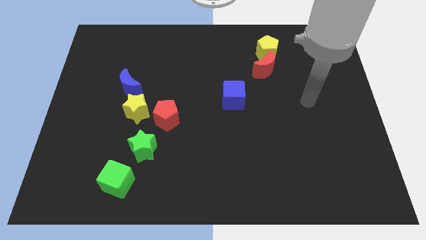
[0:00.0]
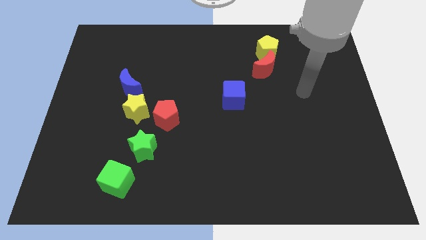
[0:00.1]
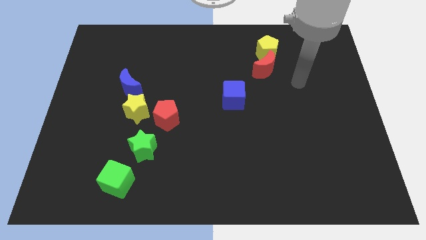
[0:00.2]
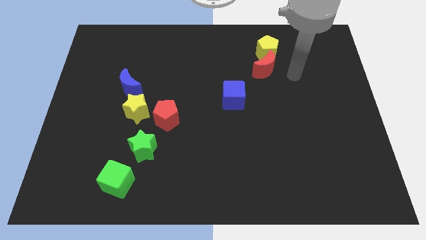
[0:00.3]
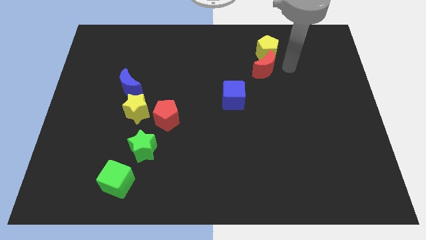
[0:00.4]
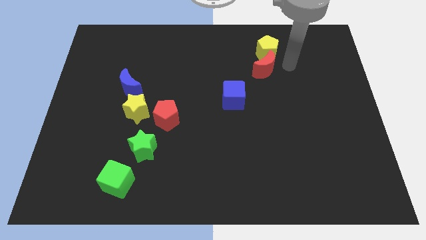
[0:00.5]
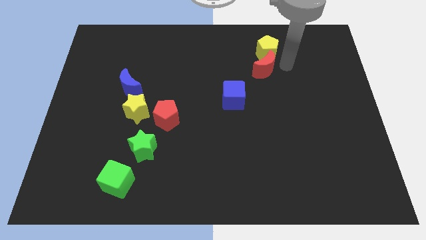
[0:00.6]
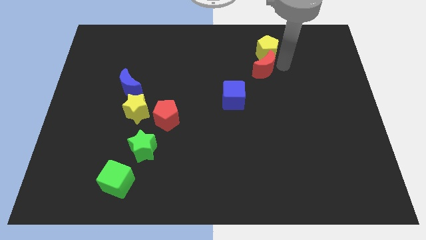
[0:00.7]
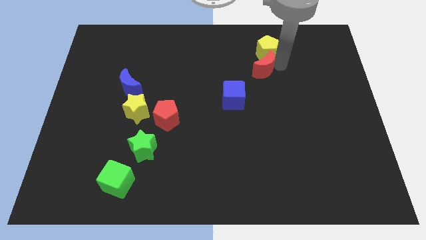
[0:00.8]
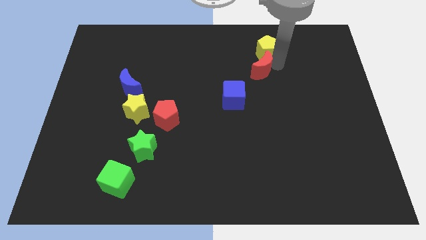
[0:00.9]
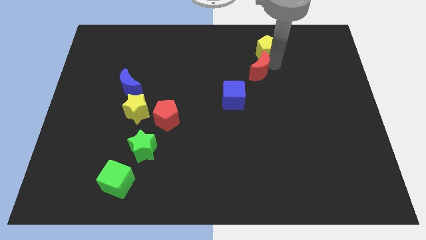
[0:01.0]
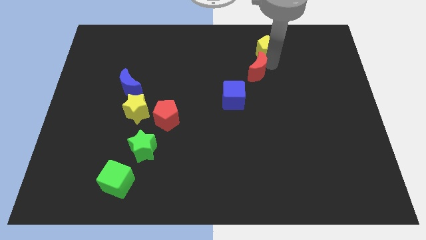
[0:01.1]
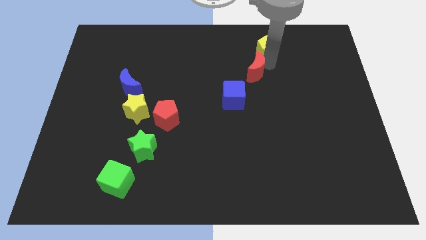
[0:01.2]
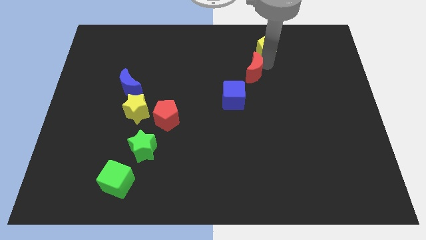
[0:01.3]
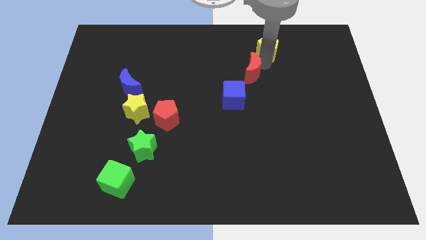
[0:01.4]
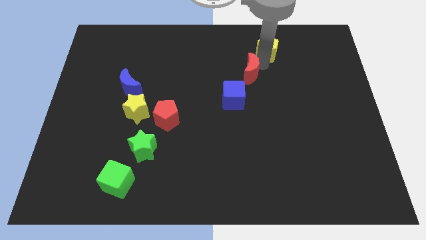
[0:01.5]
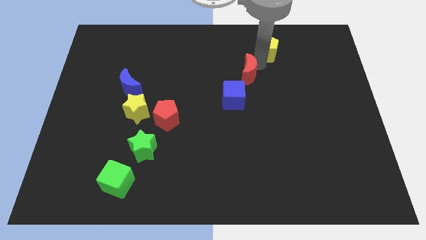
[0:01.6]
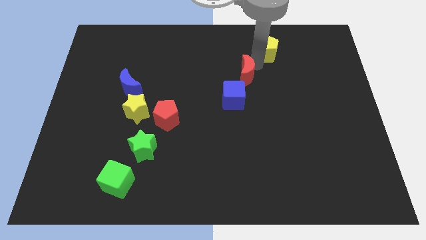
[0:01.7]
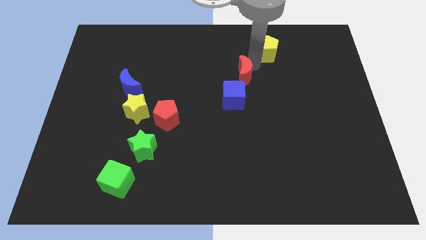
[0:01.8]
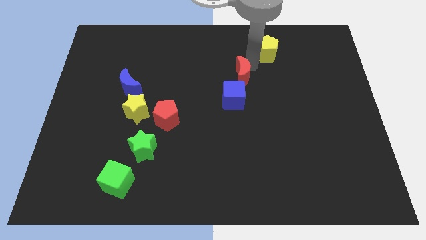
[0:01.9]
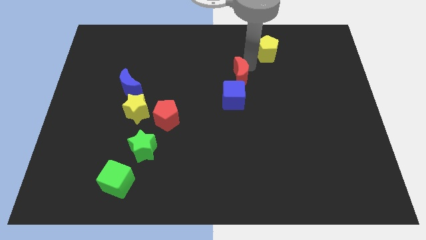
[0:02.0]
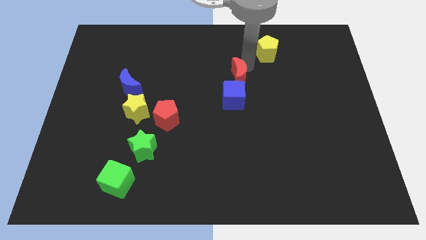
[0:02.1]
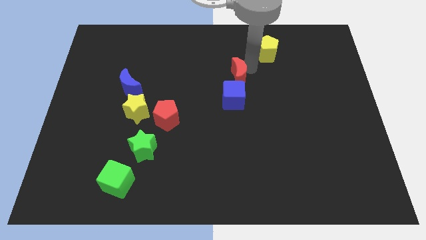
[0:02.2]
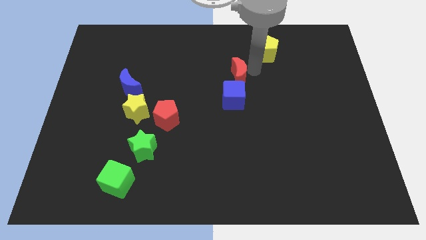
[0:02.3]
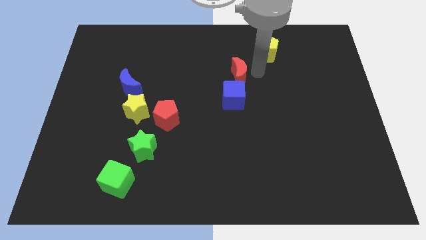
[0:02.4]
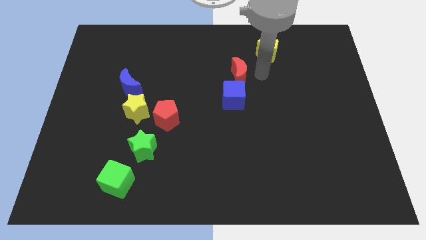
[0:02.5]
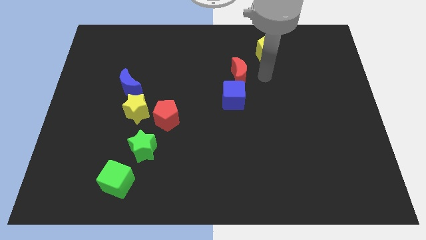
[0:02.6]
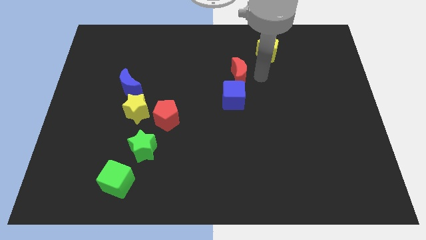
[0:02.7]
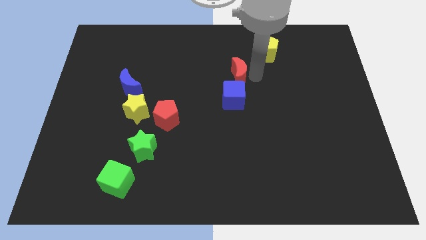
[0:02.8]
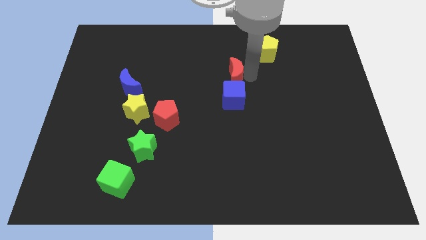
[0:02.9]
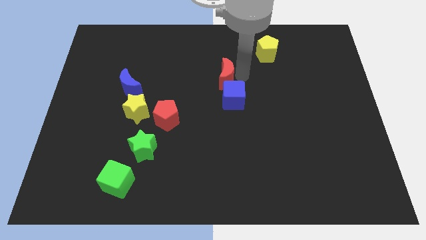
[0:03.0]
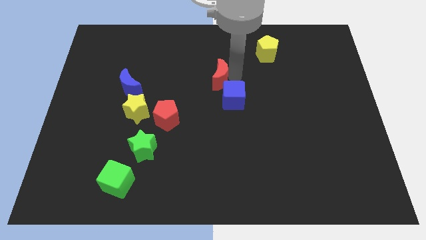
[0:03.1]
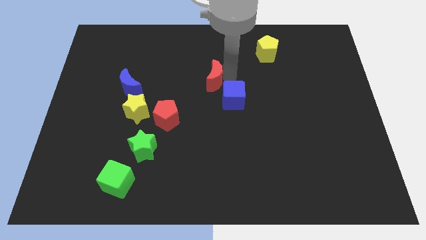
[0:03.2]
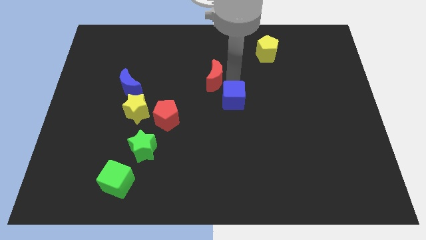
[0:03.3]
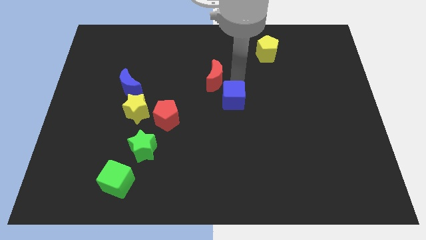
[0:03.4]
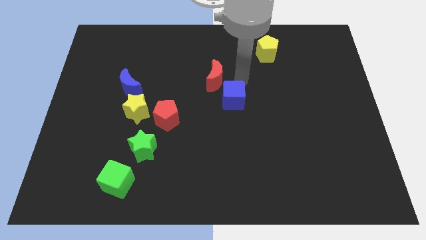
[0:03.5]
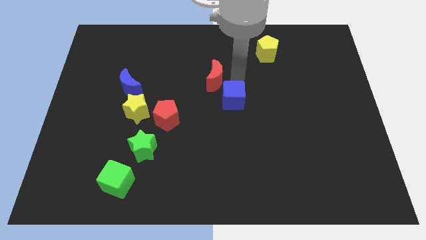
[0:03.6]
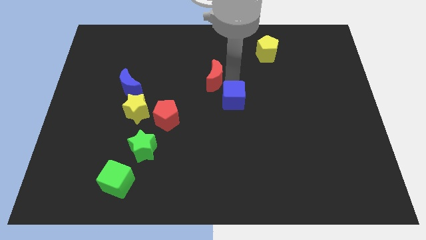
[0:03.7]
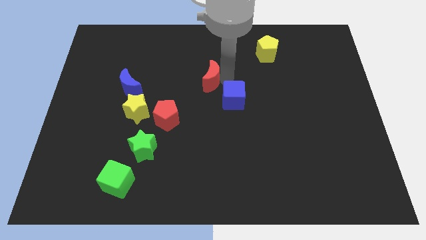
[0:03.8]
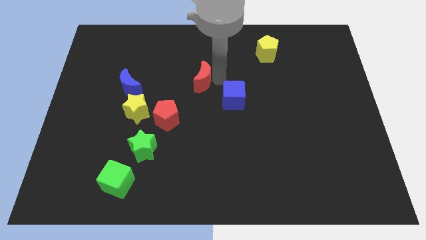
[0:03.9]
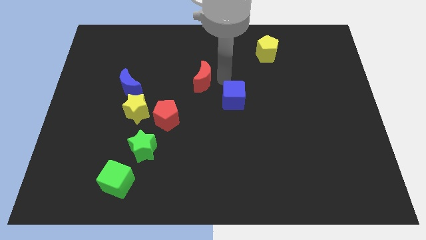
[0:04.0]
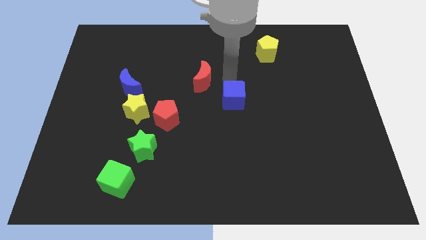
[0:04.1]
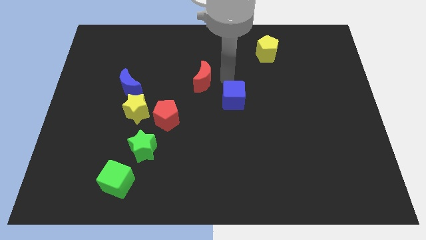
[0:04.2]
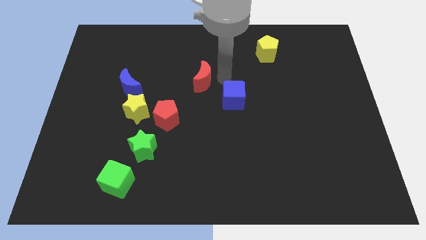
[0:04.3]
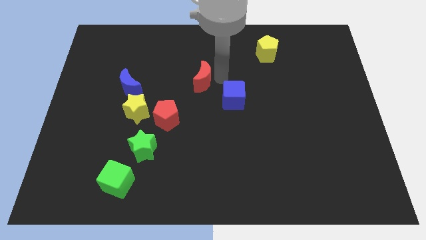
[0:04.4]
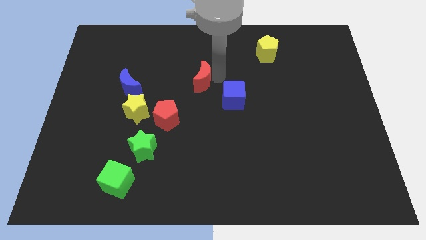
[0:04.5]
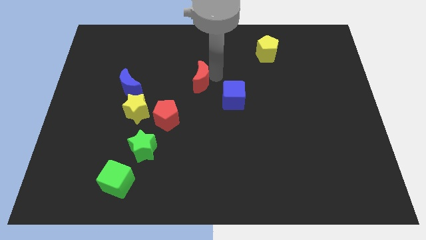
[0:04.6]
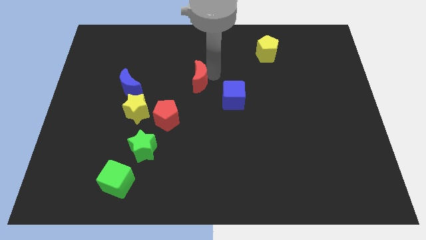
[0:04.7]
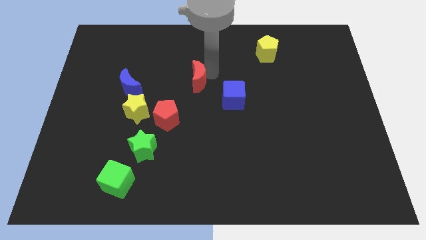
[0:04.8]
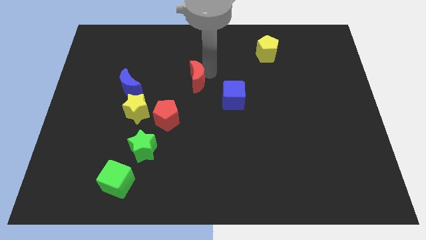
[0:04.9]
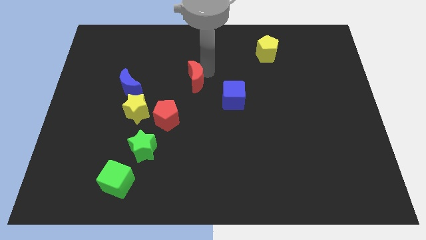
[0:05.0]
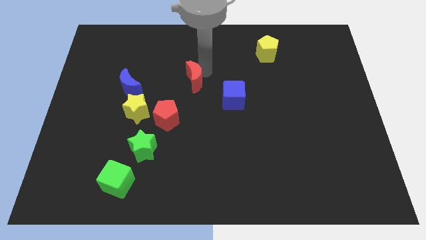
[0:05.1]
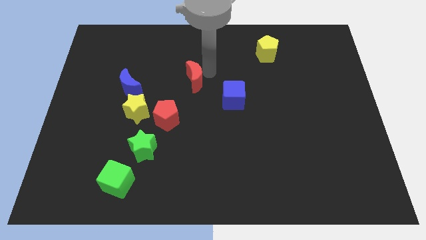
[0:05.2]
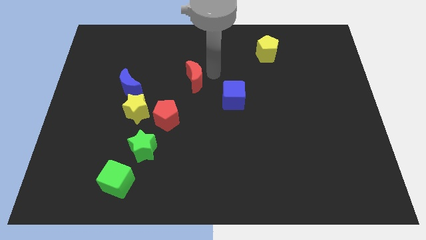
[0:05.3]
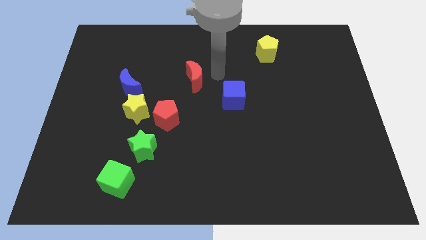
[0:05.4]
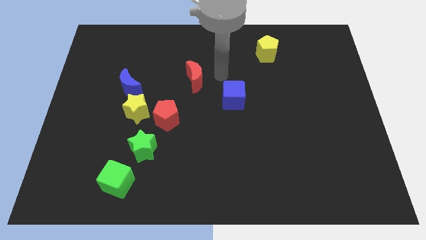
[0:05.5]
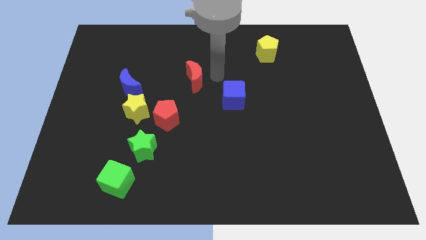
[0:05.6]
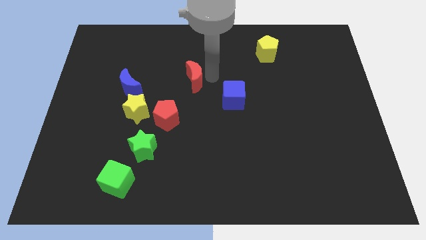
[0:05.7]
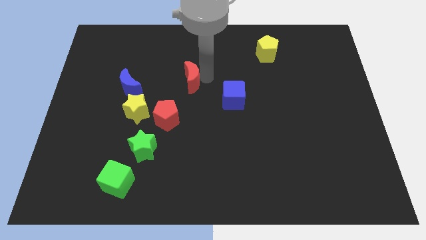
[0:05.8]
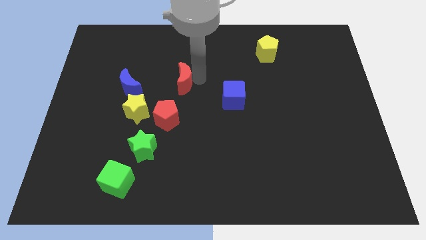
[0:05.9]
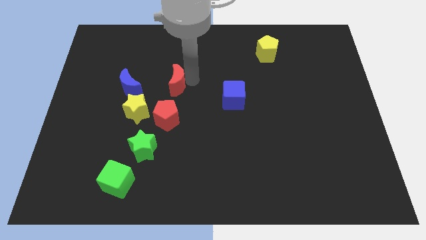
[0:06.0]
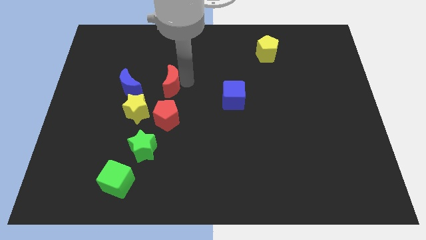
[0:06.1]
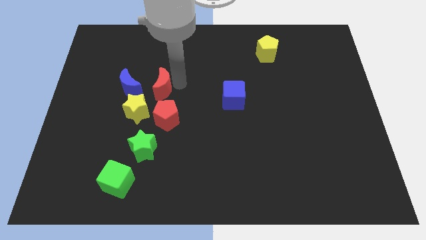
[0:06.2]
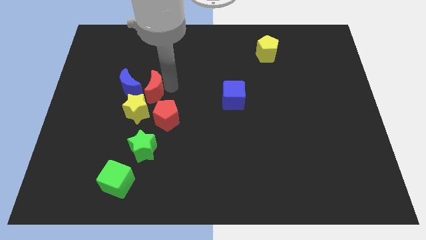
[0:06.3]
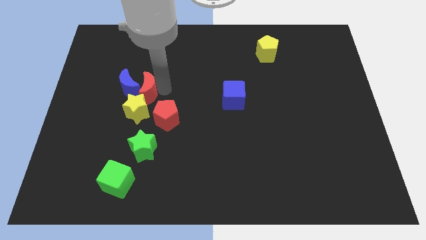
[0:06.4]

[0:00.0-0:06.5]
move the red moon to the blue moon

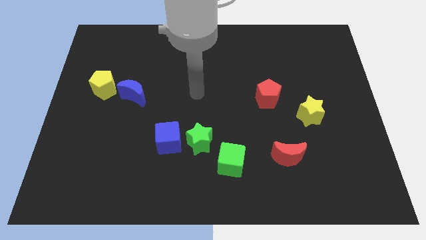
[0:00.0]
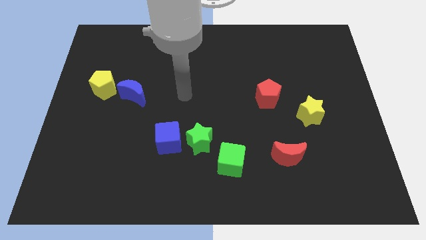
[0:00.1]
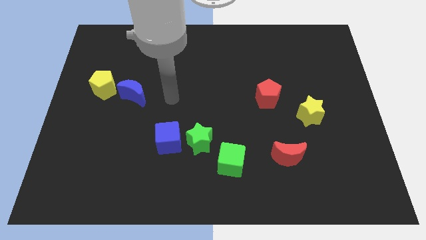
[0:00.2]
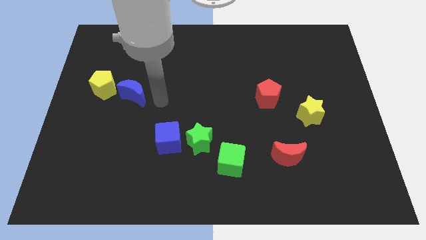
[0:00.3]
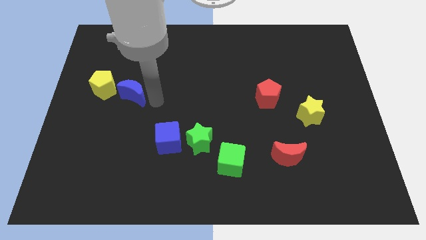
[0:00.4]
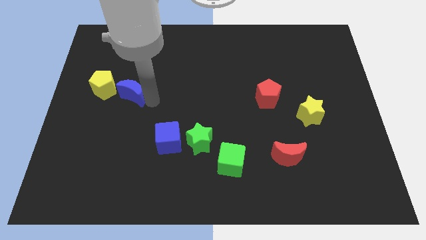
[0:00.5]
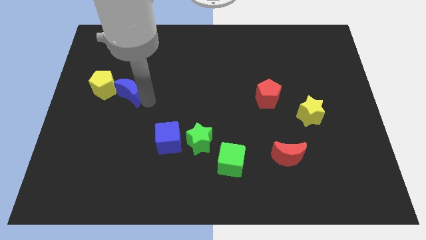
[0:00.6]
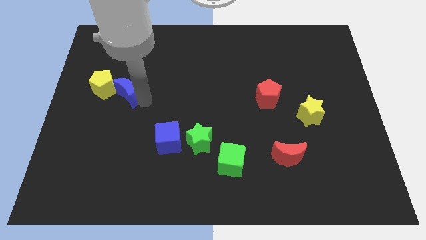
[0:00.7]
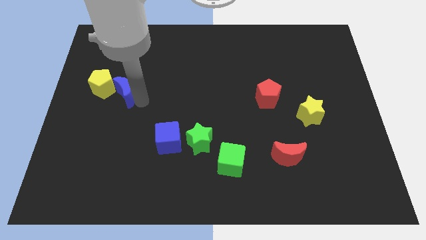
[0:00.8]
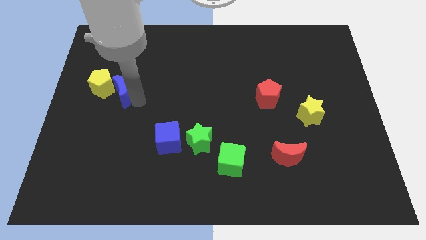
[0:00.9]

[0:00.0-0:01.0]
put the blue moon towards the yellow pentagon
